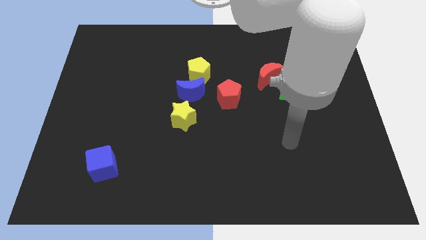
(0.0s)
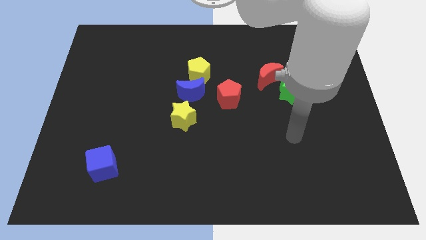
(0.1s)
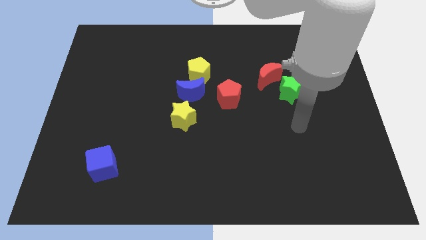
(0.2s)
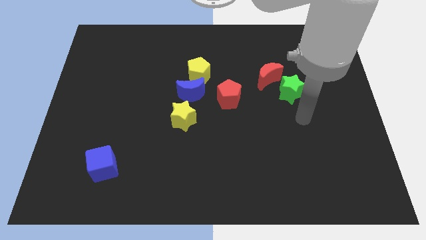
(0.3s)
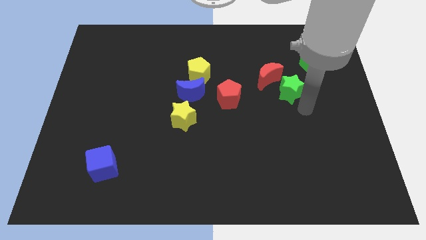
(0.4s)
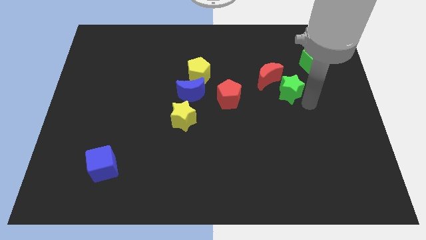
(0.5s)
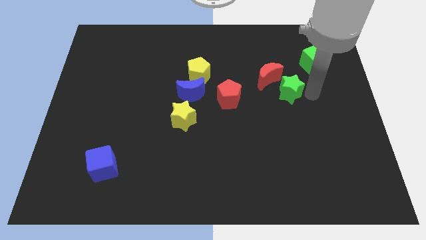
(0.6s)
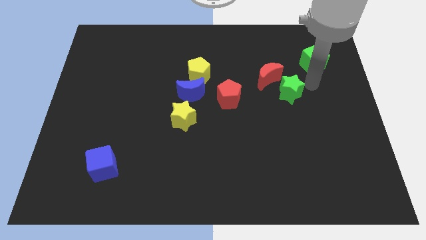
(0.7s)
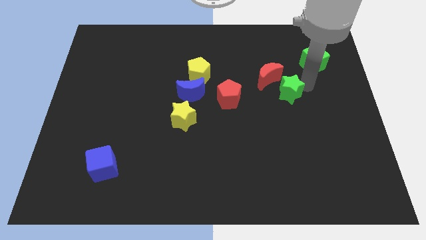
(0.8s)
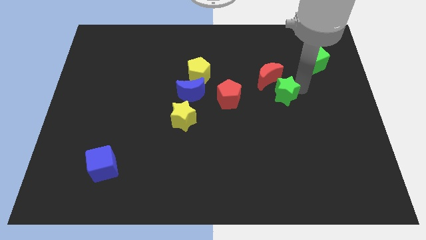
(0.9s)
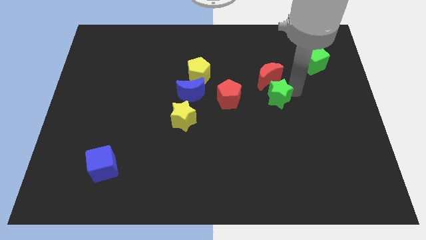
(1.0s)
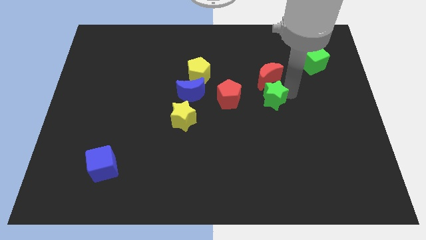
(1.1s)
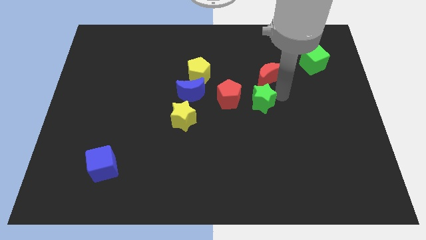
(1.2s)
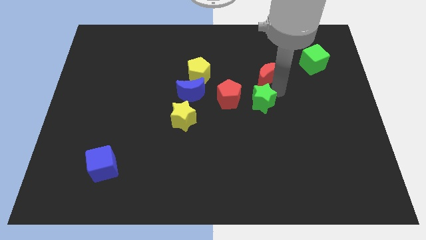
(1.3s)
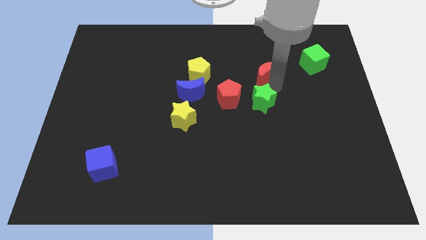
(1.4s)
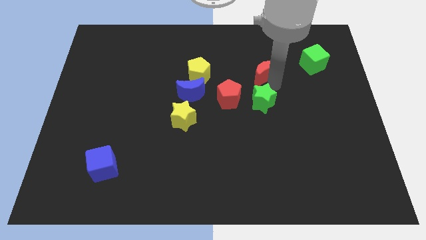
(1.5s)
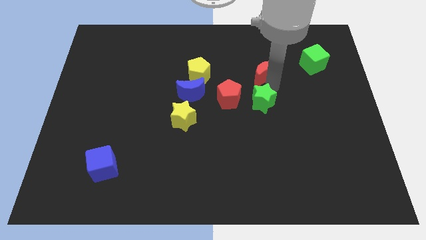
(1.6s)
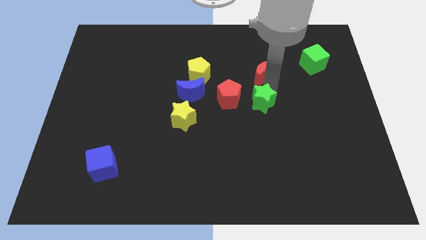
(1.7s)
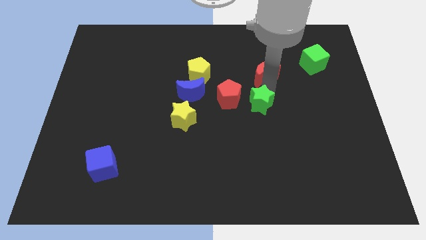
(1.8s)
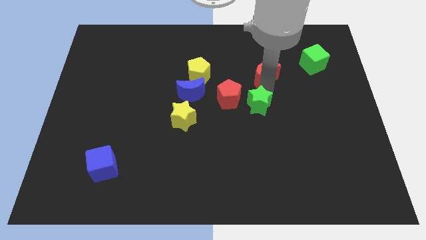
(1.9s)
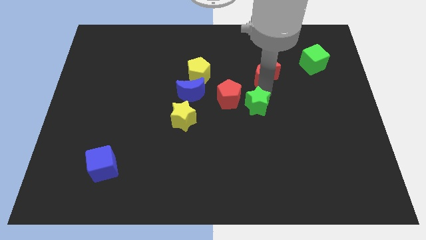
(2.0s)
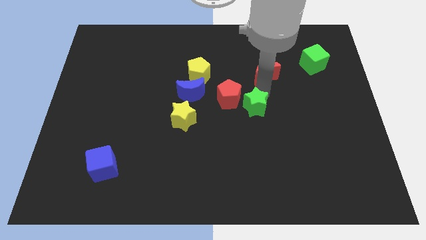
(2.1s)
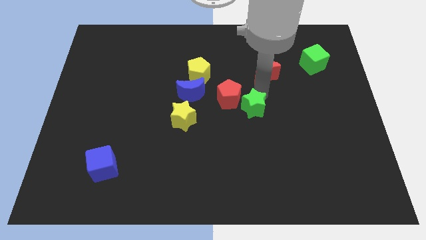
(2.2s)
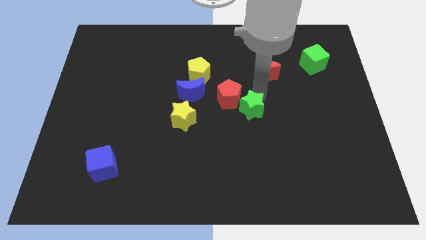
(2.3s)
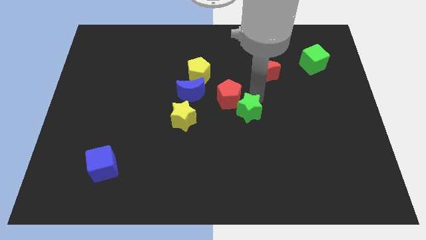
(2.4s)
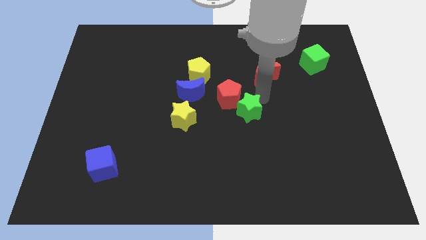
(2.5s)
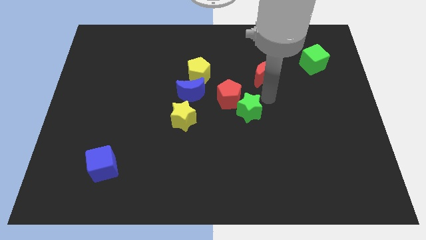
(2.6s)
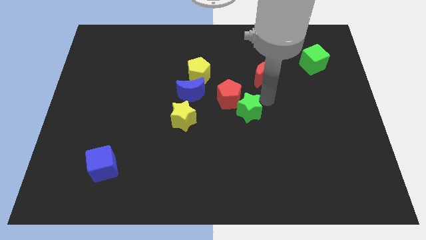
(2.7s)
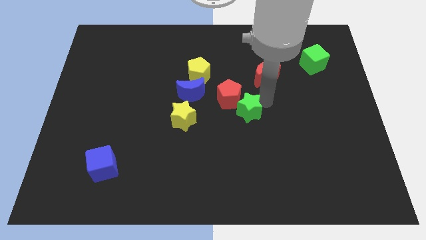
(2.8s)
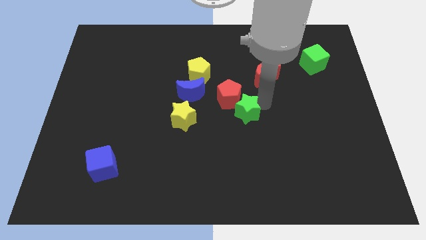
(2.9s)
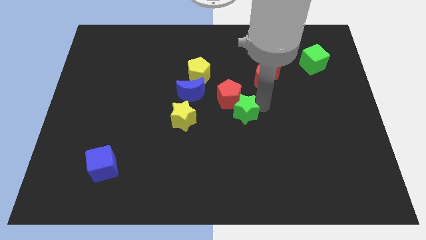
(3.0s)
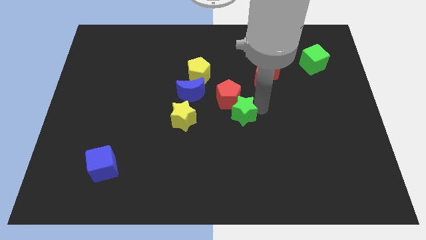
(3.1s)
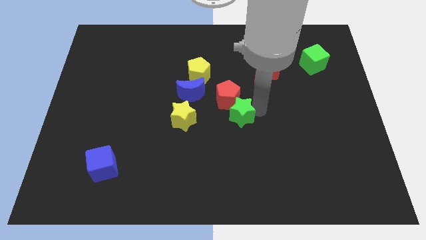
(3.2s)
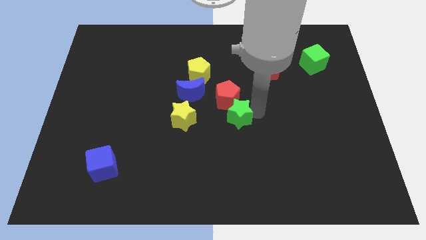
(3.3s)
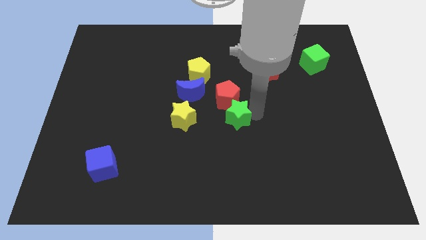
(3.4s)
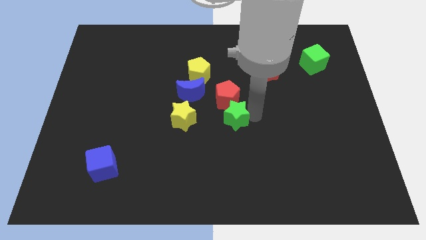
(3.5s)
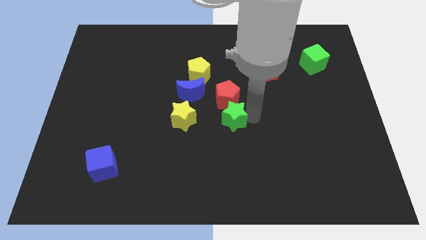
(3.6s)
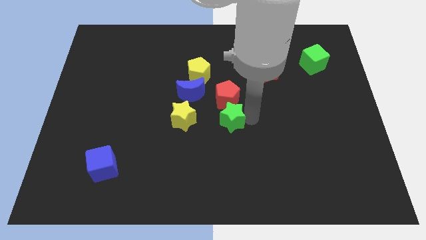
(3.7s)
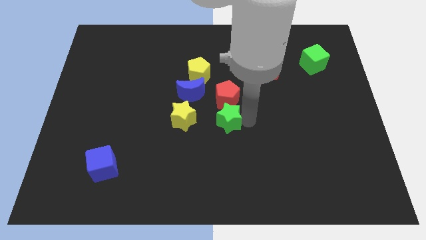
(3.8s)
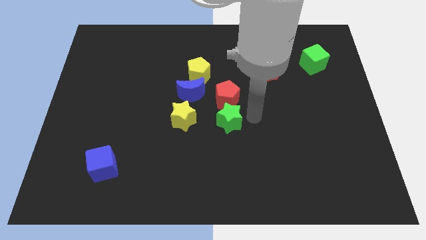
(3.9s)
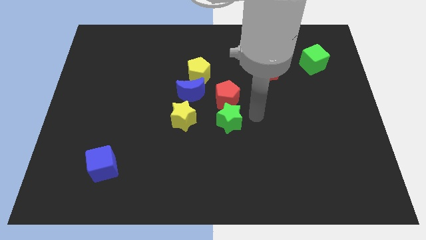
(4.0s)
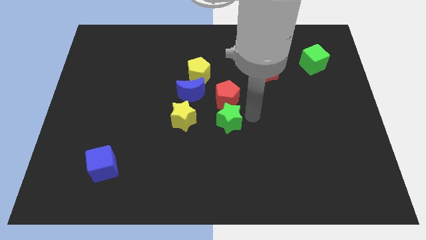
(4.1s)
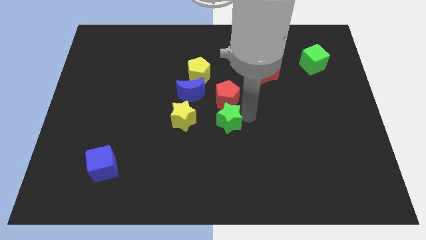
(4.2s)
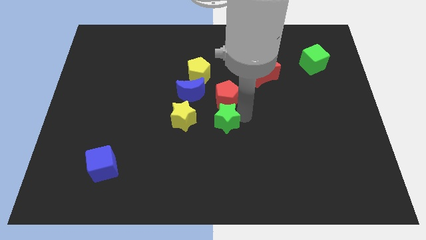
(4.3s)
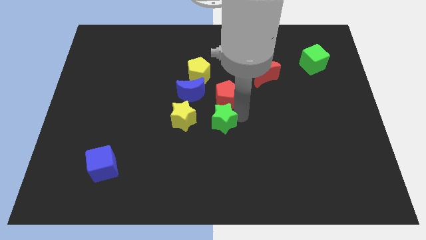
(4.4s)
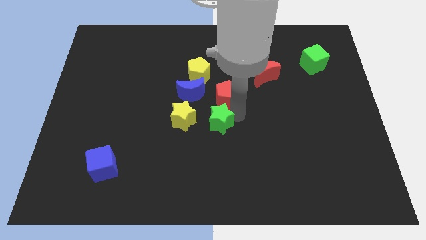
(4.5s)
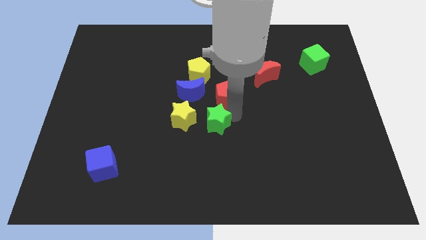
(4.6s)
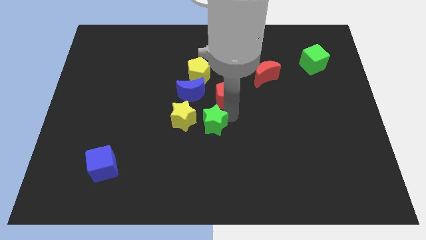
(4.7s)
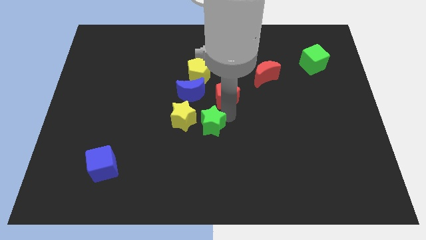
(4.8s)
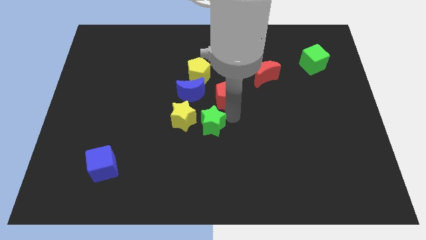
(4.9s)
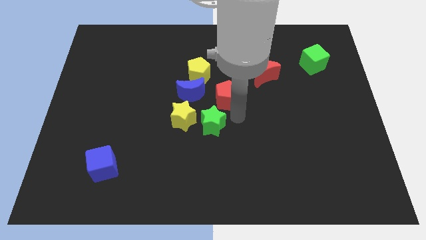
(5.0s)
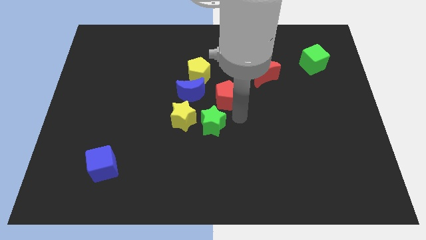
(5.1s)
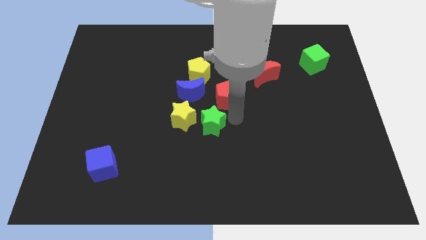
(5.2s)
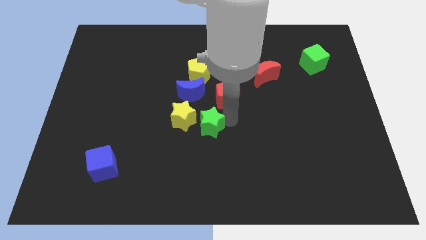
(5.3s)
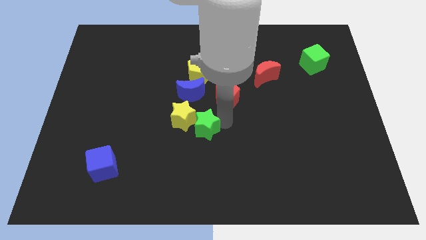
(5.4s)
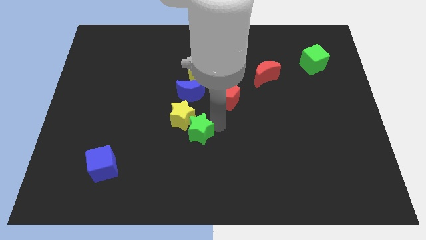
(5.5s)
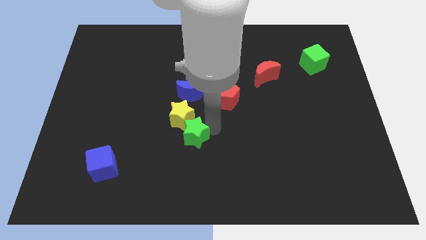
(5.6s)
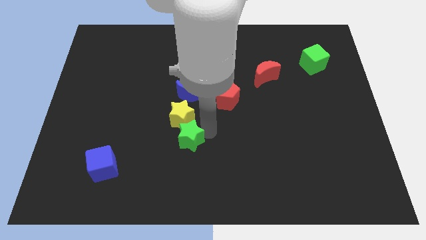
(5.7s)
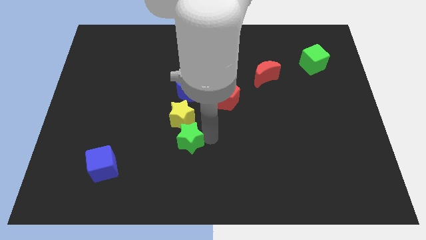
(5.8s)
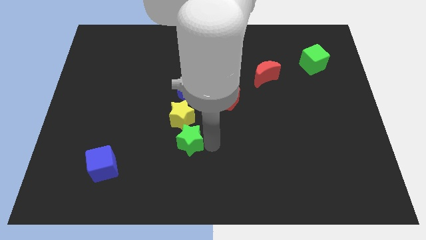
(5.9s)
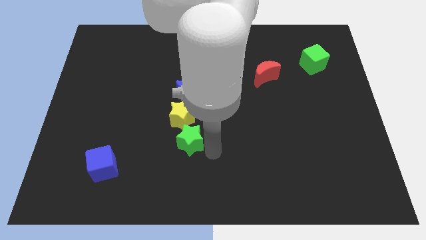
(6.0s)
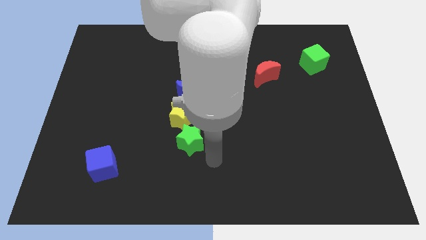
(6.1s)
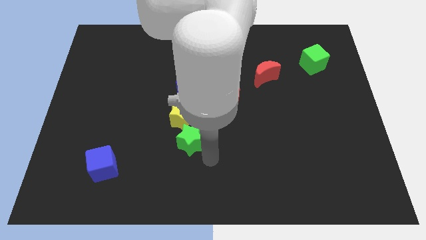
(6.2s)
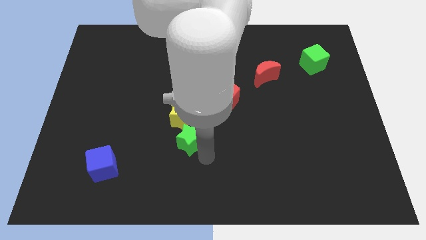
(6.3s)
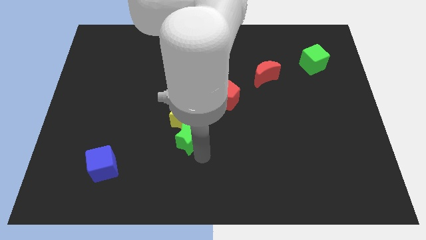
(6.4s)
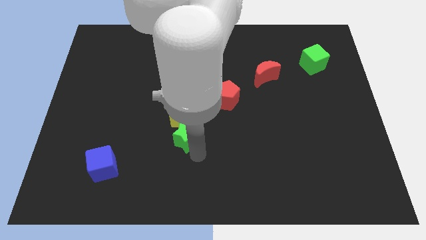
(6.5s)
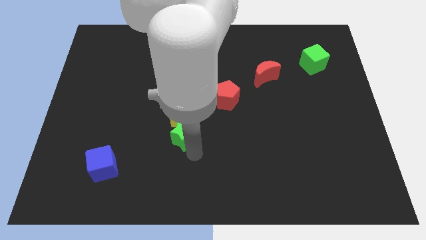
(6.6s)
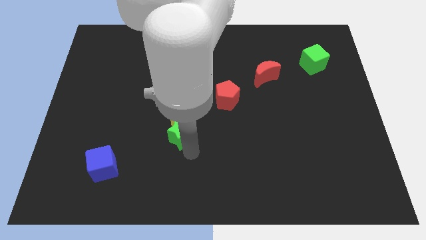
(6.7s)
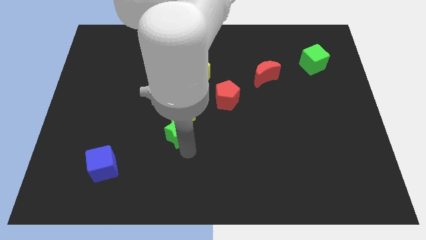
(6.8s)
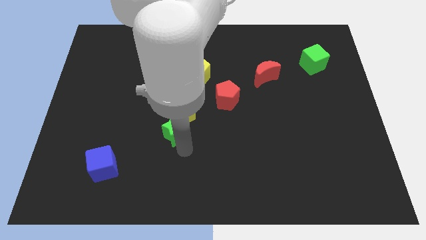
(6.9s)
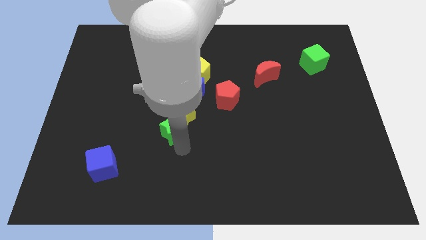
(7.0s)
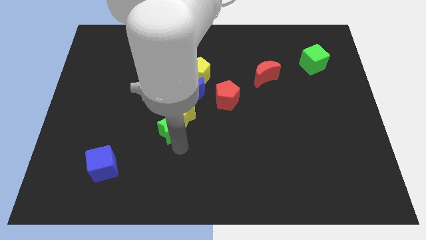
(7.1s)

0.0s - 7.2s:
move the green star left

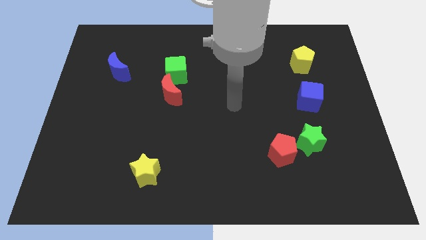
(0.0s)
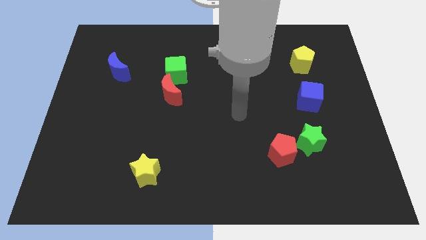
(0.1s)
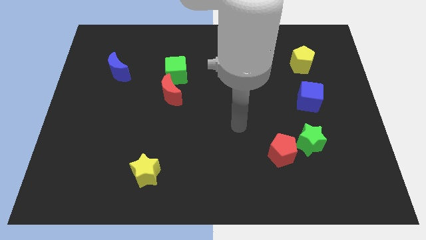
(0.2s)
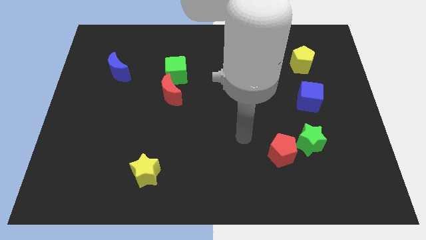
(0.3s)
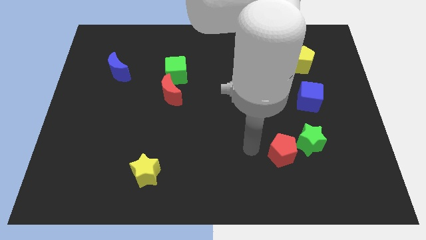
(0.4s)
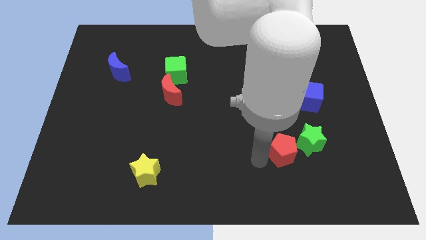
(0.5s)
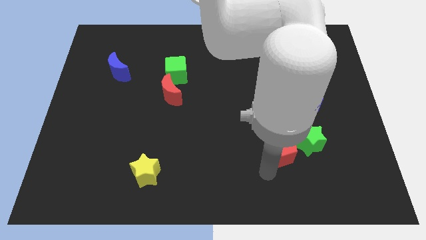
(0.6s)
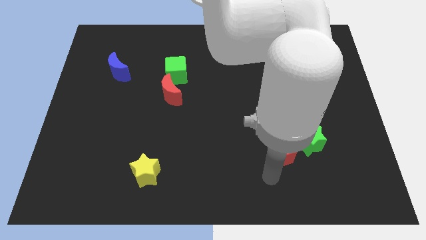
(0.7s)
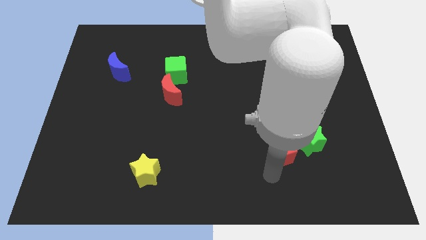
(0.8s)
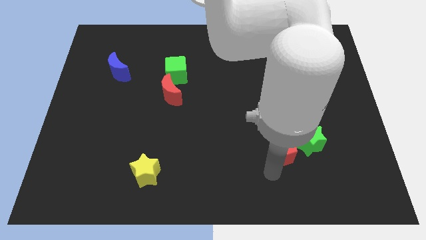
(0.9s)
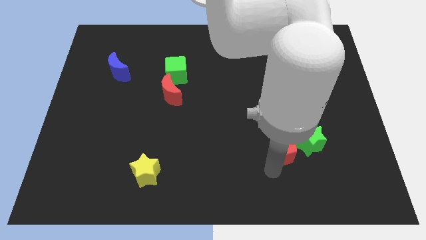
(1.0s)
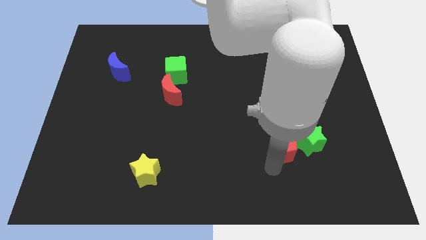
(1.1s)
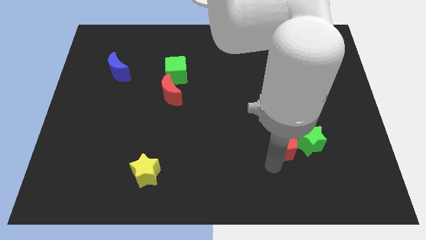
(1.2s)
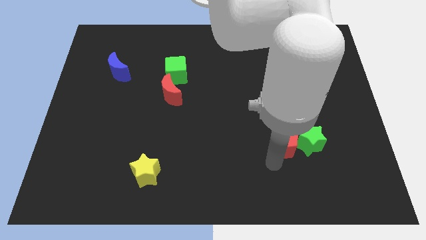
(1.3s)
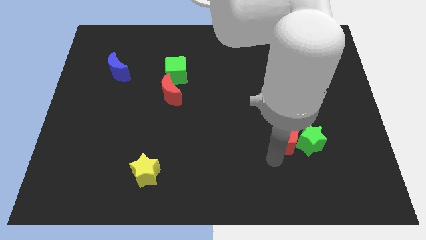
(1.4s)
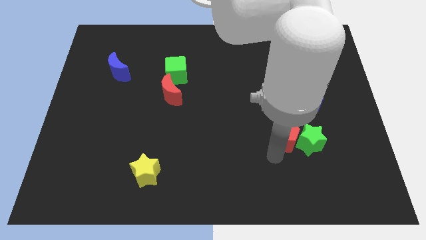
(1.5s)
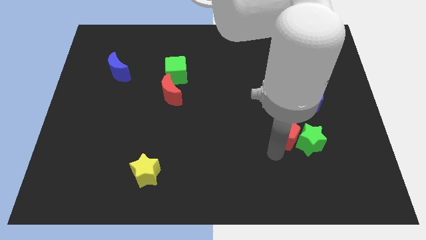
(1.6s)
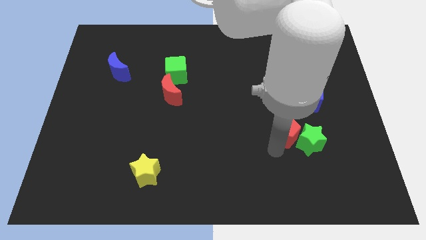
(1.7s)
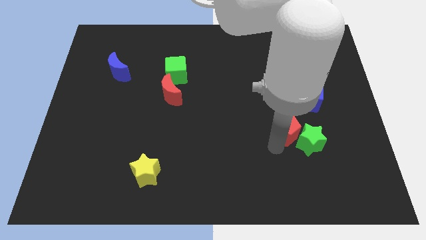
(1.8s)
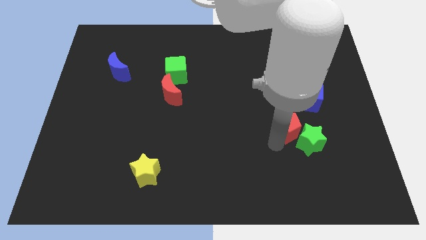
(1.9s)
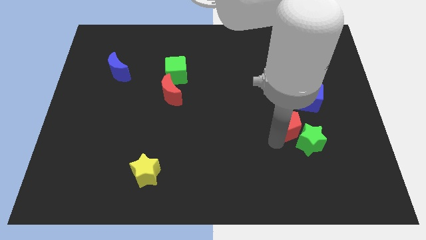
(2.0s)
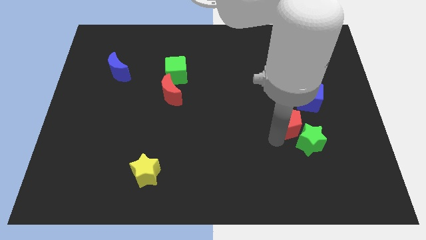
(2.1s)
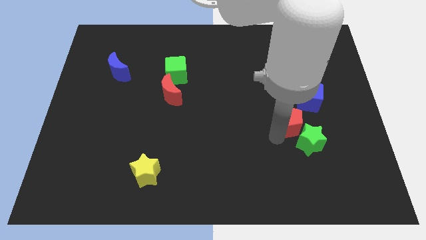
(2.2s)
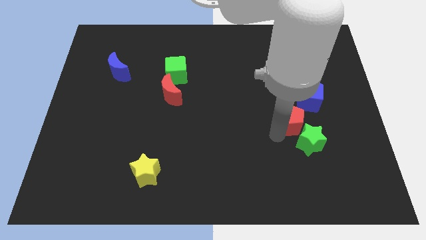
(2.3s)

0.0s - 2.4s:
slightly slide the red pentagon upwards and then to the right
